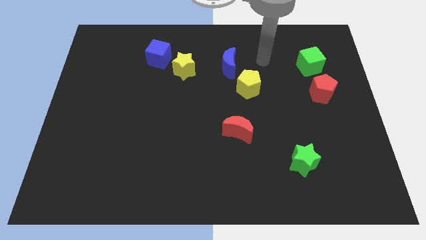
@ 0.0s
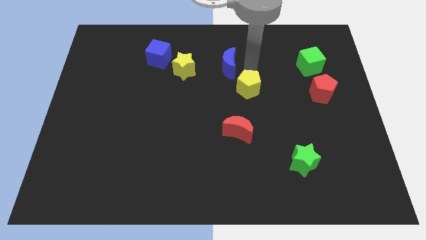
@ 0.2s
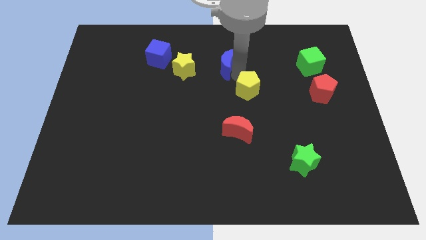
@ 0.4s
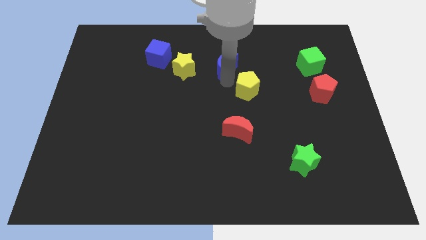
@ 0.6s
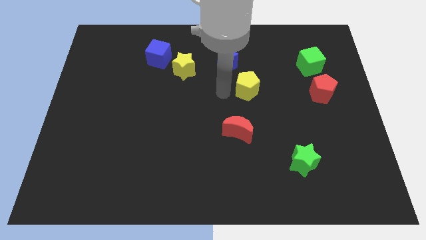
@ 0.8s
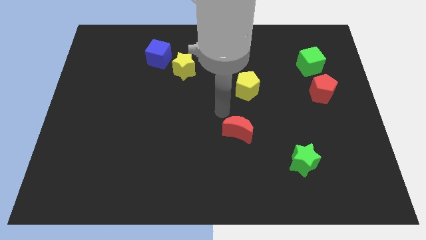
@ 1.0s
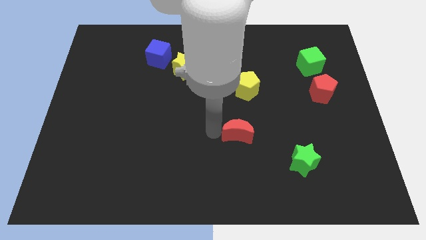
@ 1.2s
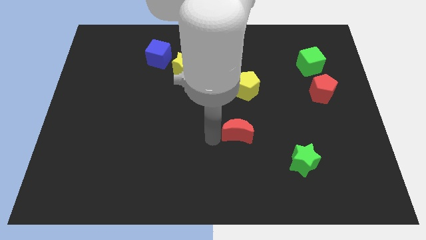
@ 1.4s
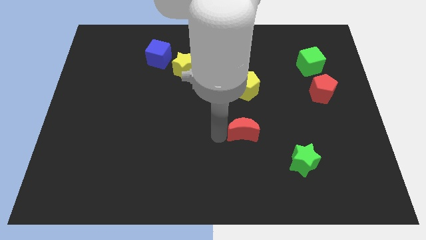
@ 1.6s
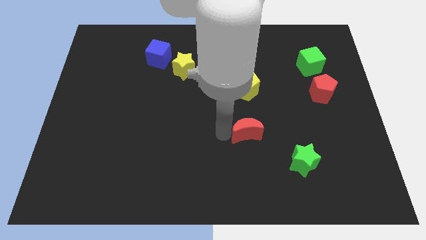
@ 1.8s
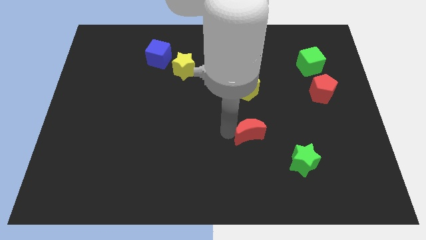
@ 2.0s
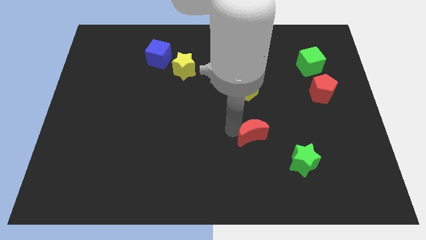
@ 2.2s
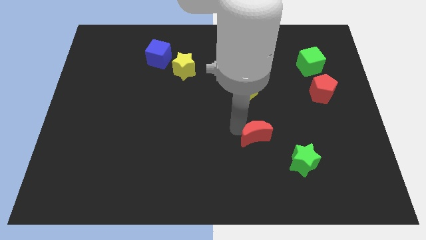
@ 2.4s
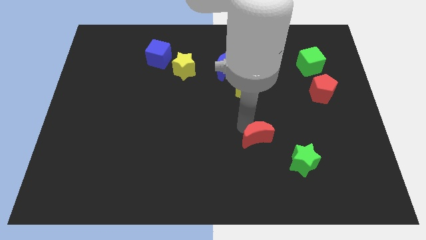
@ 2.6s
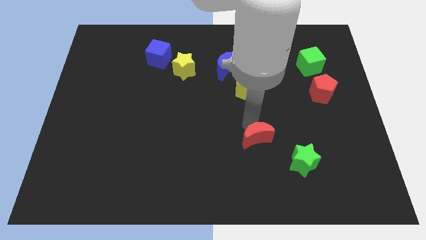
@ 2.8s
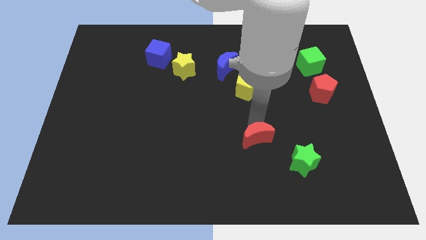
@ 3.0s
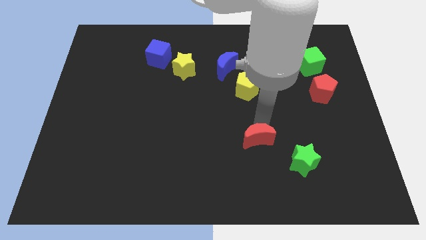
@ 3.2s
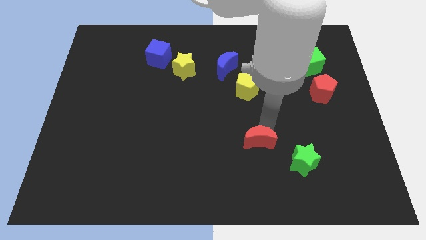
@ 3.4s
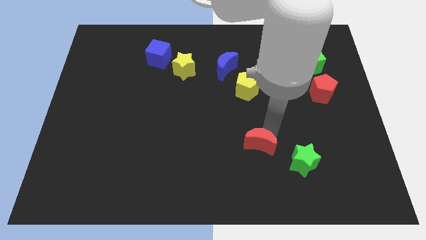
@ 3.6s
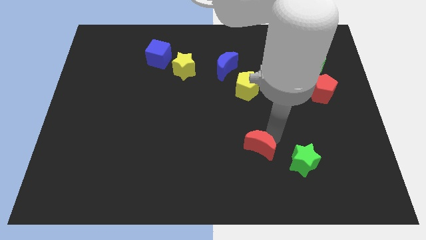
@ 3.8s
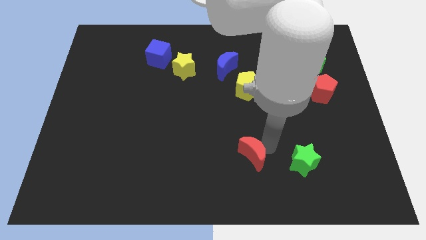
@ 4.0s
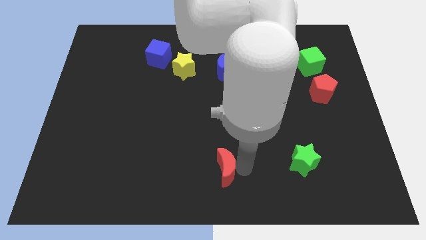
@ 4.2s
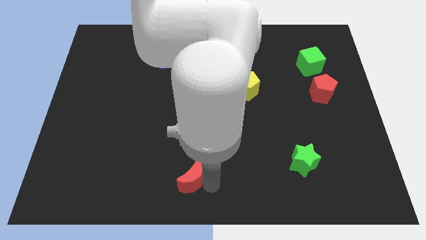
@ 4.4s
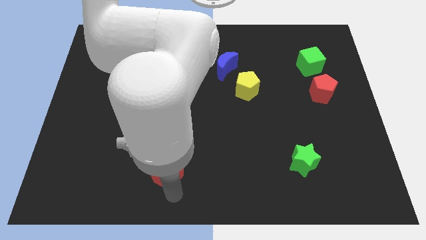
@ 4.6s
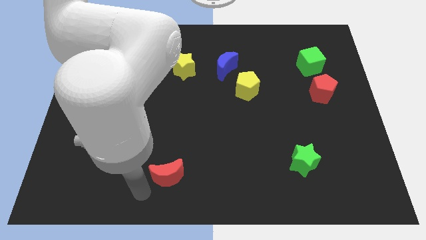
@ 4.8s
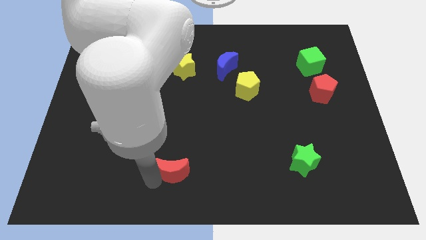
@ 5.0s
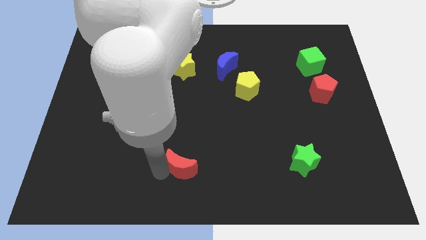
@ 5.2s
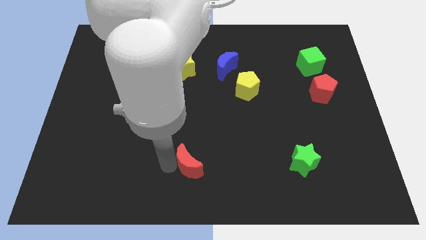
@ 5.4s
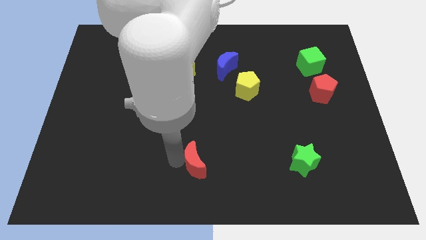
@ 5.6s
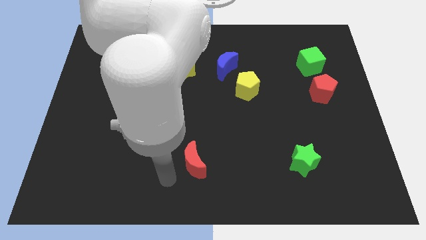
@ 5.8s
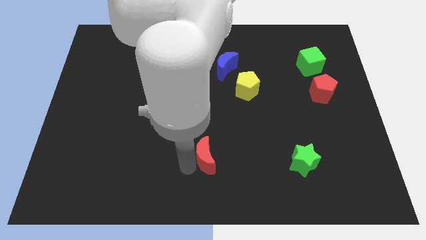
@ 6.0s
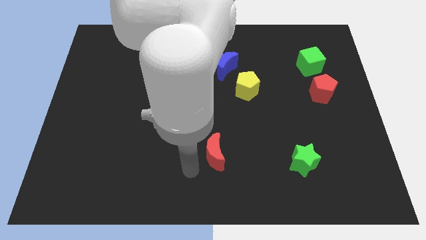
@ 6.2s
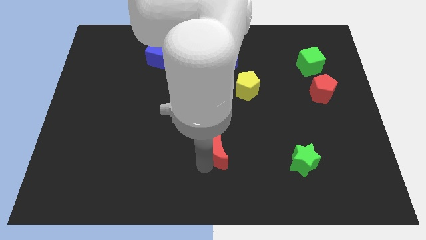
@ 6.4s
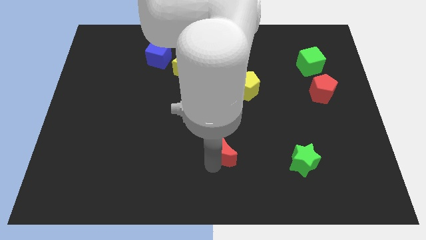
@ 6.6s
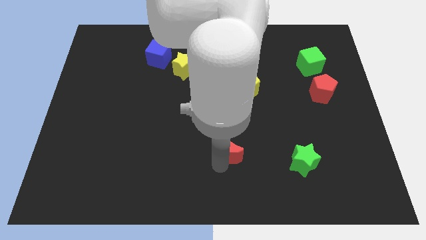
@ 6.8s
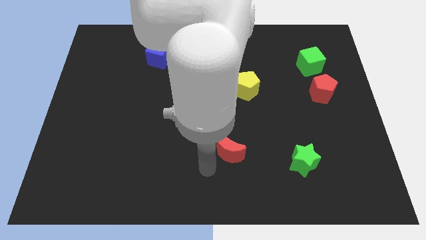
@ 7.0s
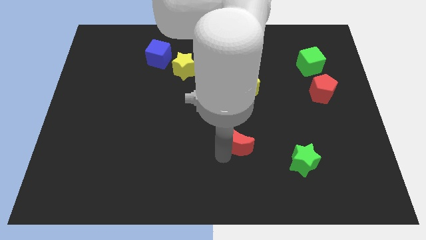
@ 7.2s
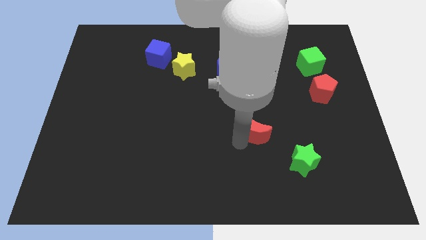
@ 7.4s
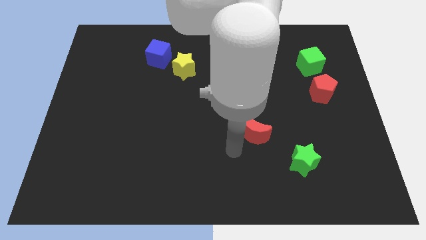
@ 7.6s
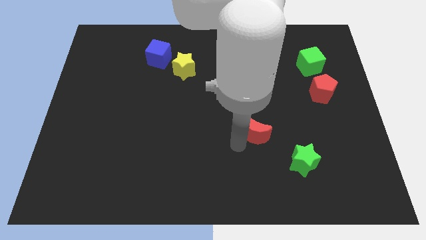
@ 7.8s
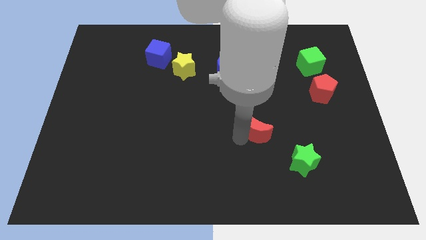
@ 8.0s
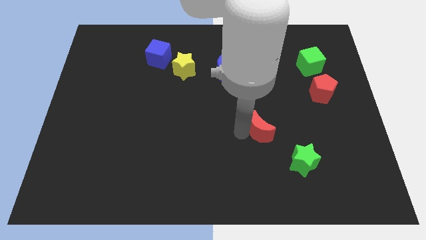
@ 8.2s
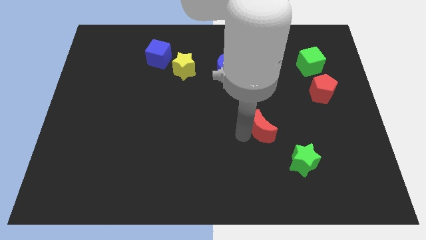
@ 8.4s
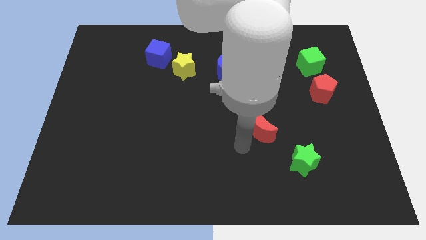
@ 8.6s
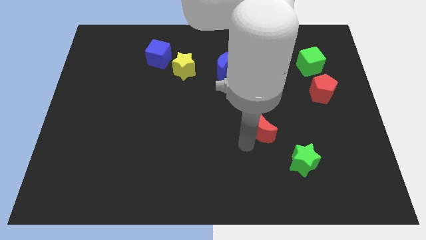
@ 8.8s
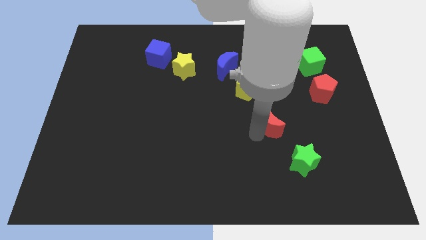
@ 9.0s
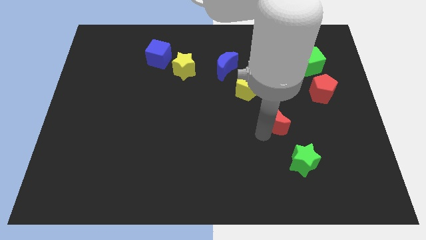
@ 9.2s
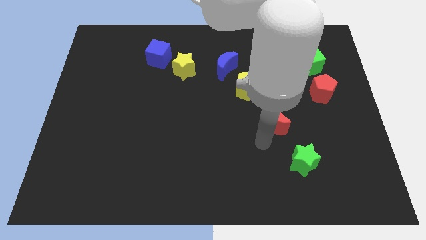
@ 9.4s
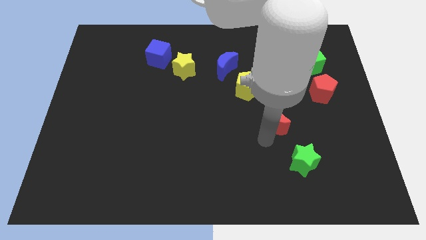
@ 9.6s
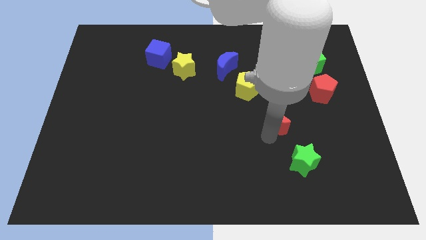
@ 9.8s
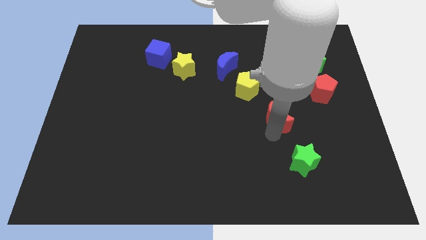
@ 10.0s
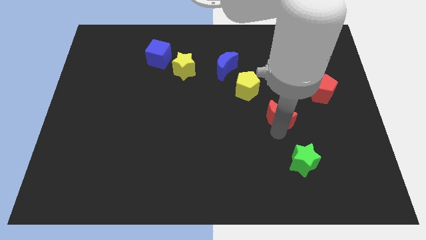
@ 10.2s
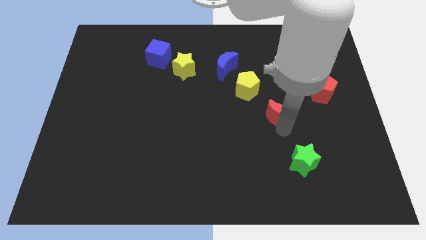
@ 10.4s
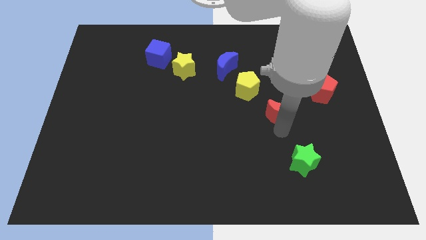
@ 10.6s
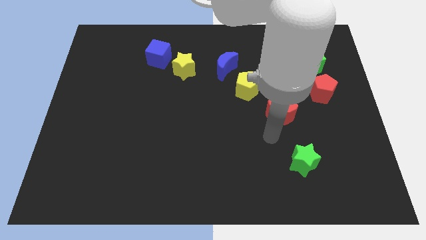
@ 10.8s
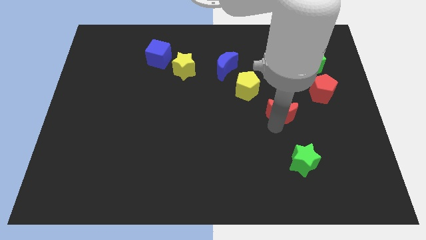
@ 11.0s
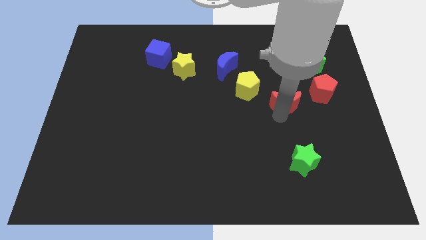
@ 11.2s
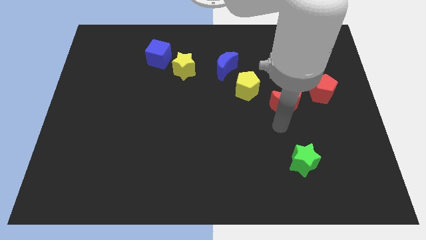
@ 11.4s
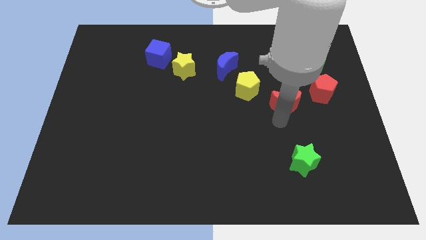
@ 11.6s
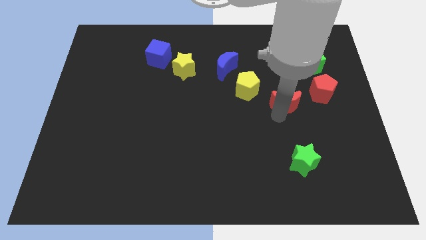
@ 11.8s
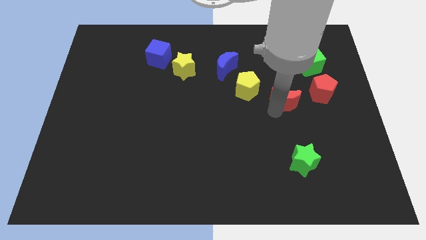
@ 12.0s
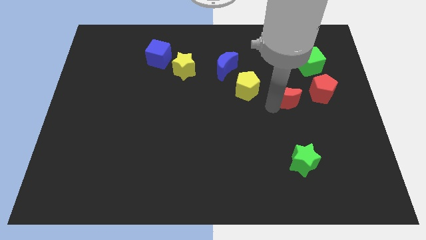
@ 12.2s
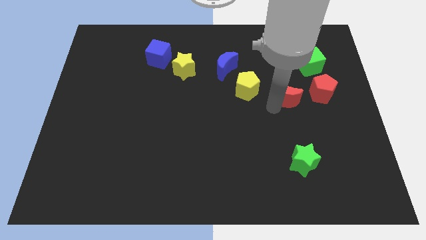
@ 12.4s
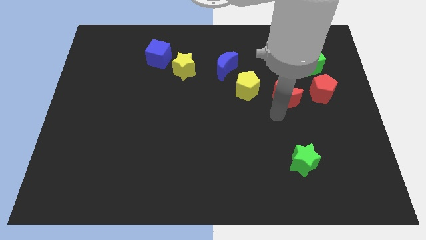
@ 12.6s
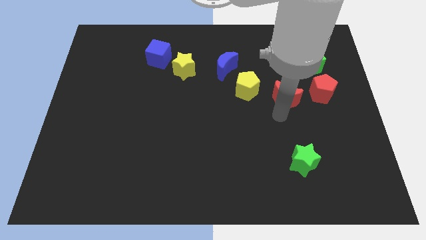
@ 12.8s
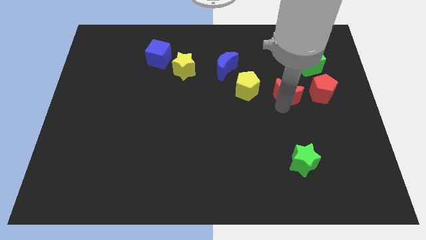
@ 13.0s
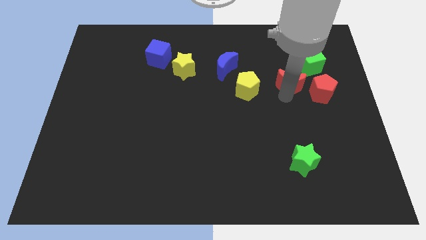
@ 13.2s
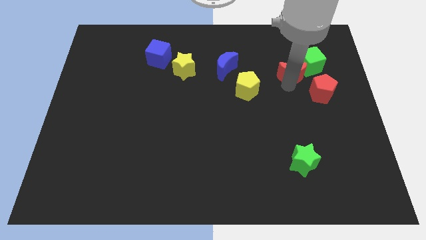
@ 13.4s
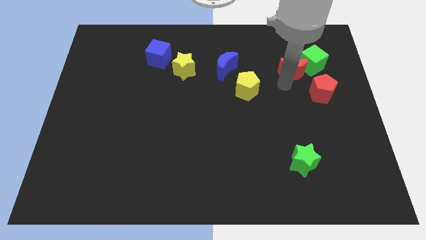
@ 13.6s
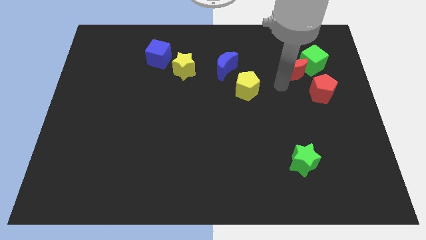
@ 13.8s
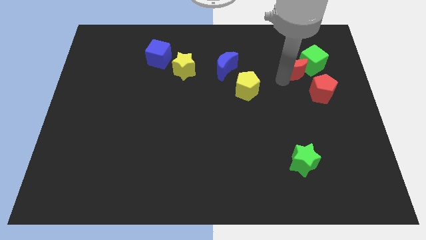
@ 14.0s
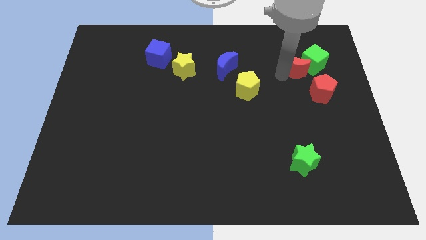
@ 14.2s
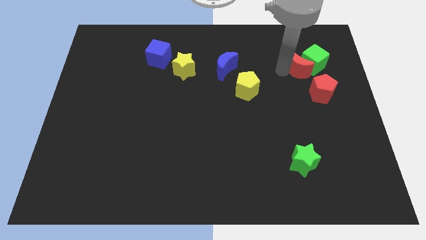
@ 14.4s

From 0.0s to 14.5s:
push the red moon to the top side of the red pentagon
